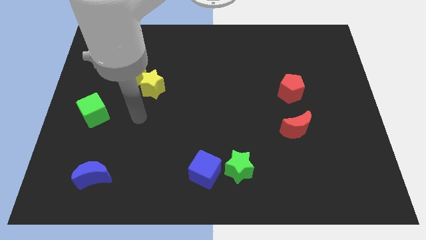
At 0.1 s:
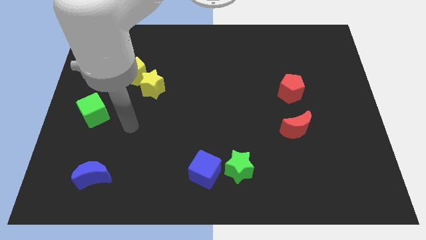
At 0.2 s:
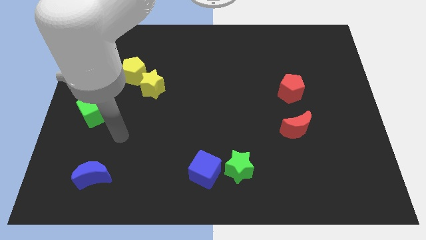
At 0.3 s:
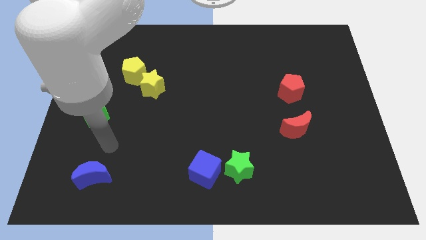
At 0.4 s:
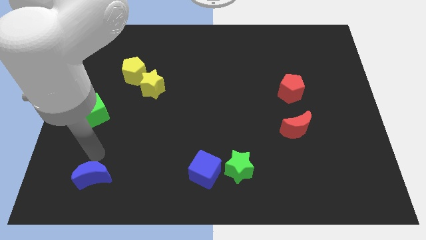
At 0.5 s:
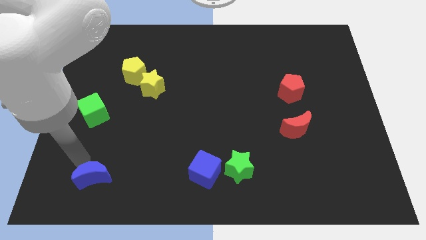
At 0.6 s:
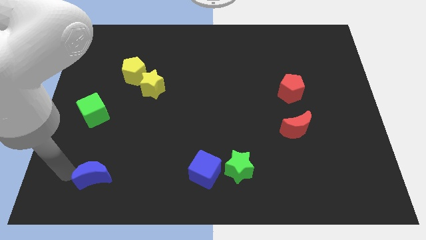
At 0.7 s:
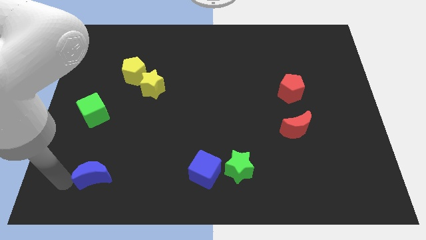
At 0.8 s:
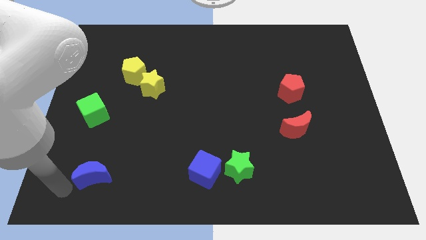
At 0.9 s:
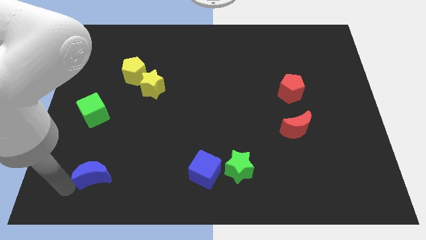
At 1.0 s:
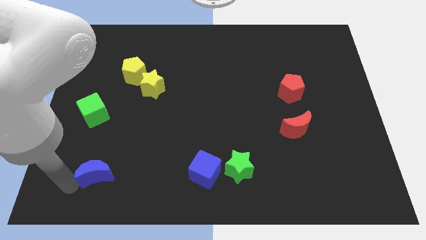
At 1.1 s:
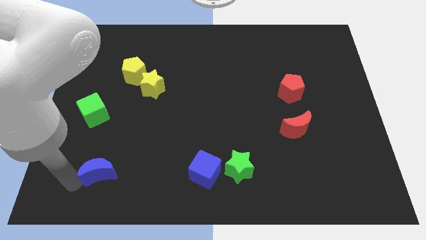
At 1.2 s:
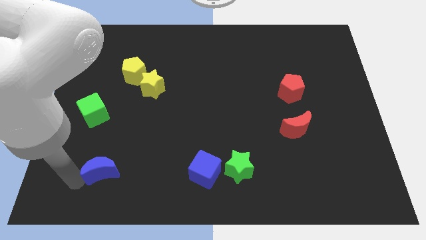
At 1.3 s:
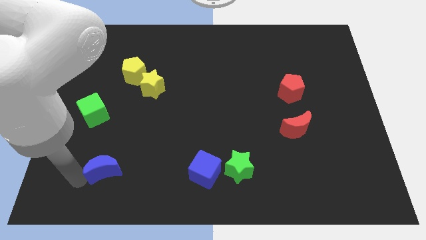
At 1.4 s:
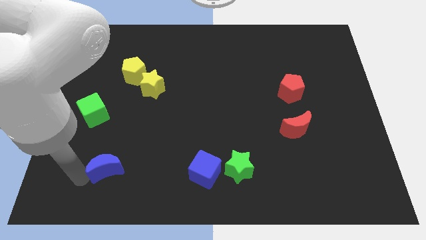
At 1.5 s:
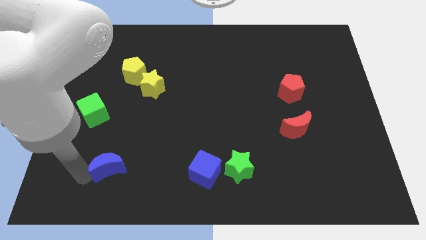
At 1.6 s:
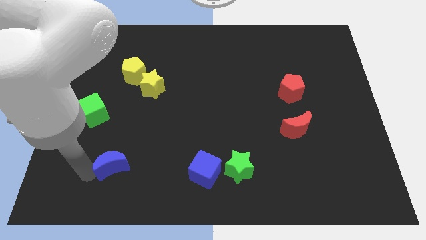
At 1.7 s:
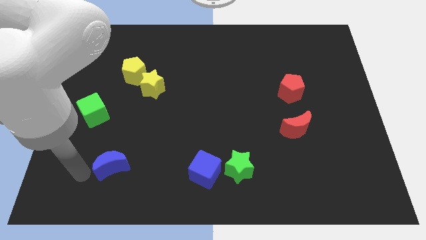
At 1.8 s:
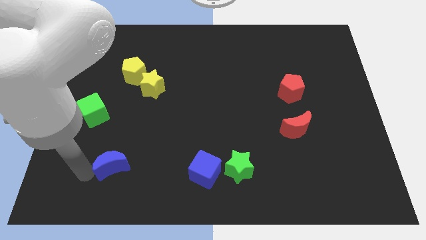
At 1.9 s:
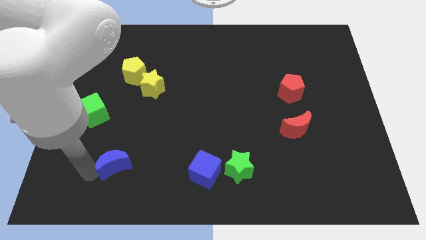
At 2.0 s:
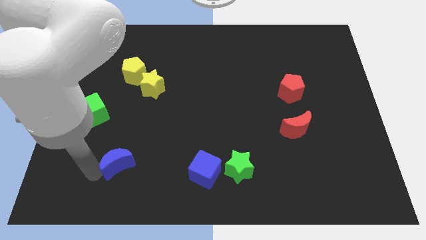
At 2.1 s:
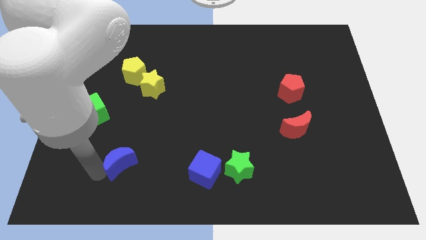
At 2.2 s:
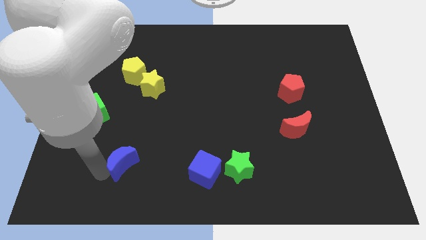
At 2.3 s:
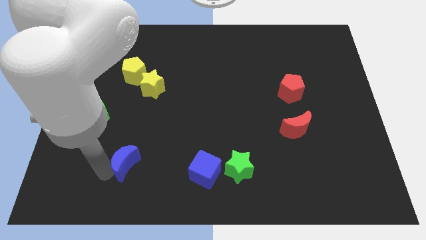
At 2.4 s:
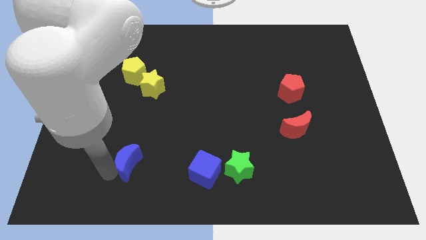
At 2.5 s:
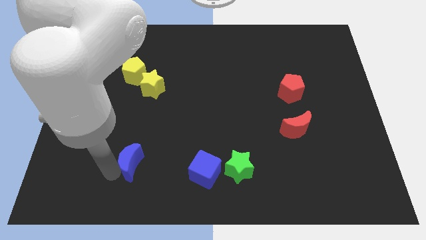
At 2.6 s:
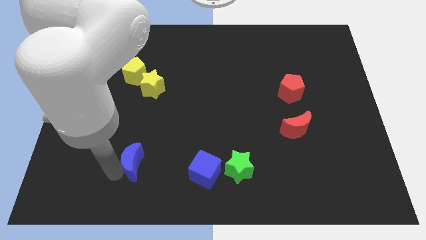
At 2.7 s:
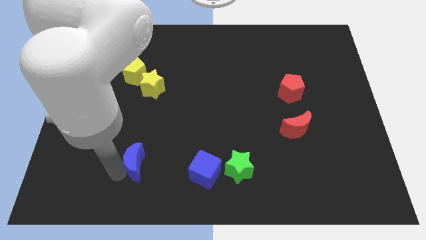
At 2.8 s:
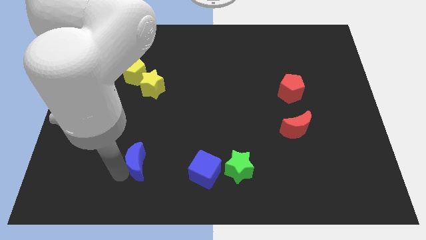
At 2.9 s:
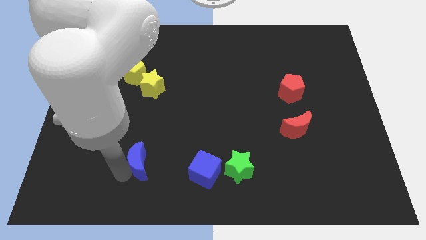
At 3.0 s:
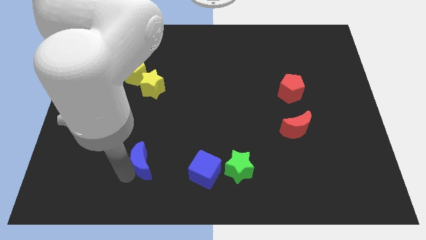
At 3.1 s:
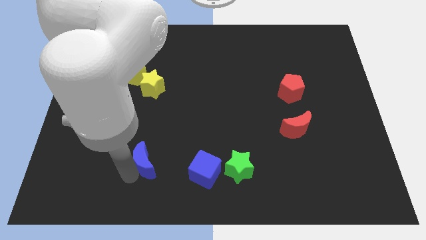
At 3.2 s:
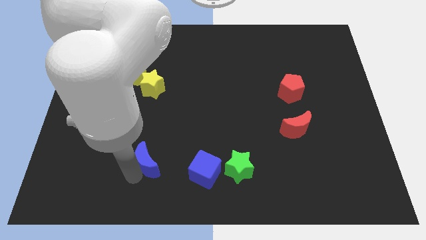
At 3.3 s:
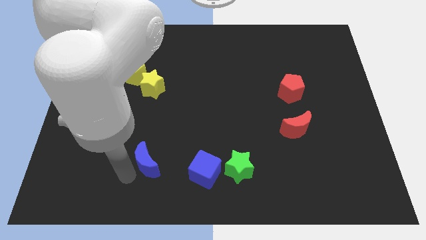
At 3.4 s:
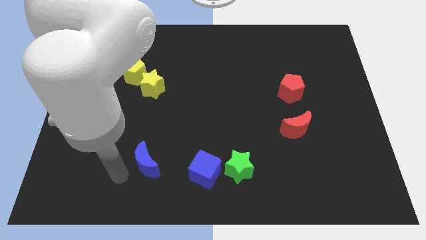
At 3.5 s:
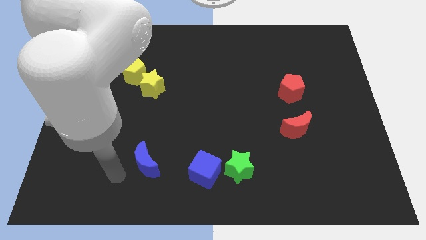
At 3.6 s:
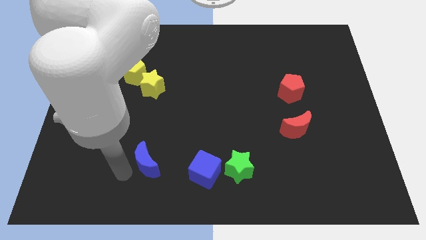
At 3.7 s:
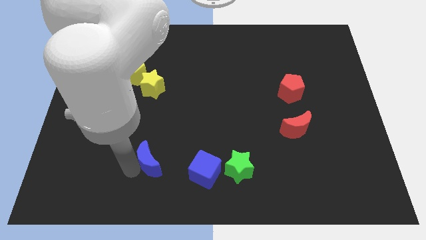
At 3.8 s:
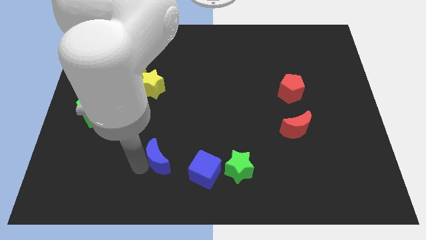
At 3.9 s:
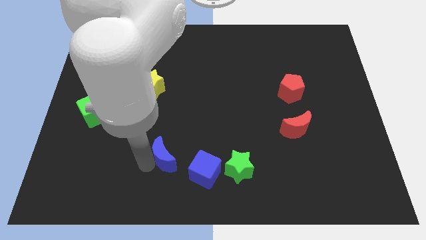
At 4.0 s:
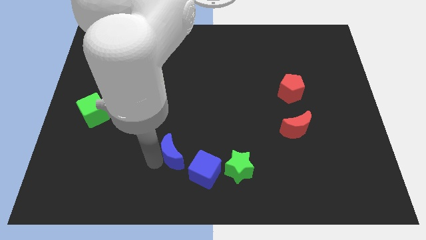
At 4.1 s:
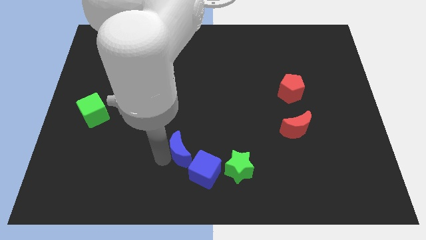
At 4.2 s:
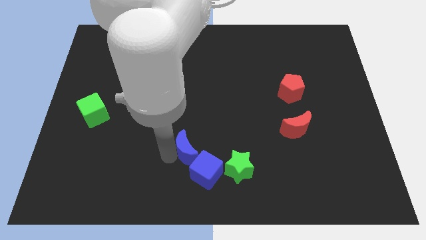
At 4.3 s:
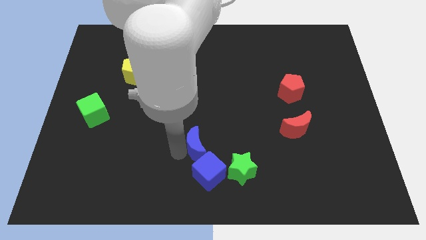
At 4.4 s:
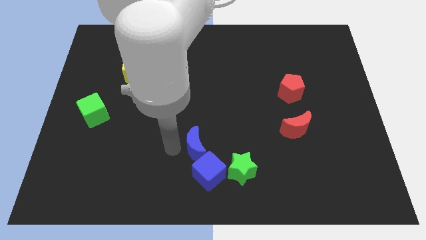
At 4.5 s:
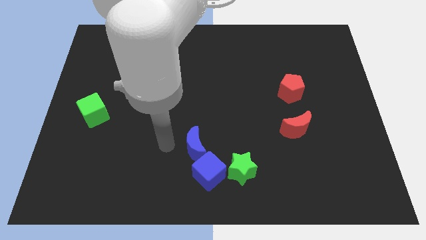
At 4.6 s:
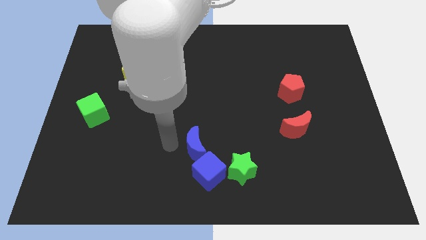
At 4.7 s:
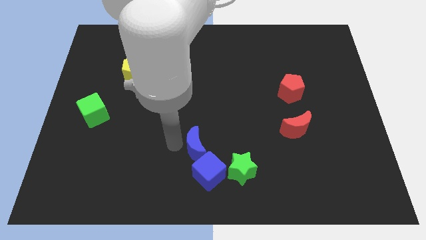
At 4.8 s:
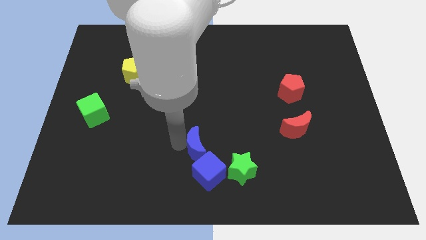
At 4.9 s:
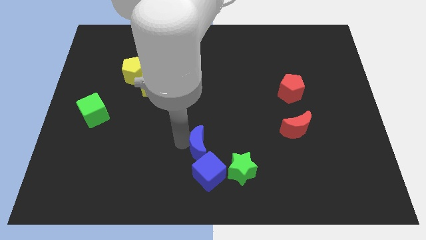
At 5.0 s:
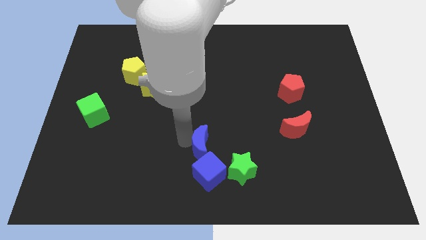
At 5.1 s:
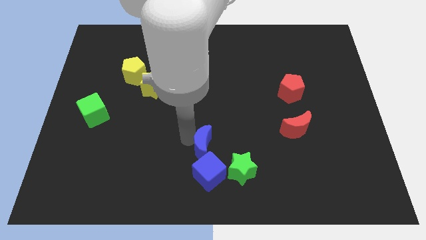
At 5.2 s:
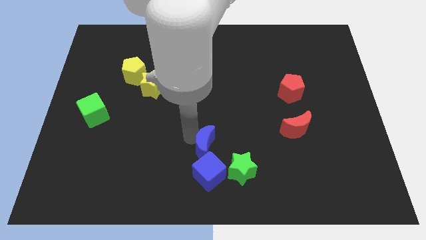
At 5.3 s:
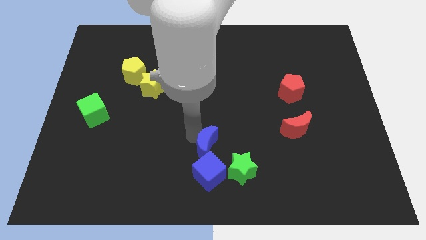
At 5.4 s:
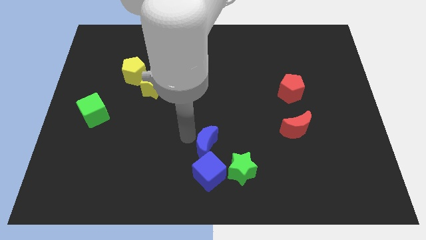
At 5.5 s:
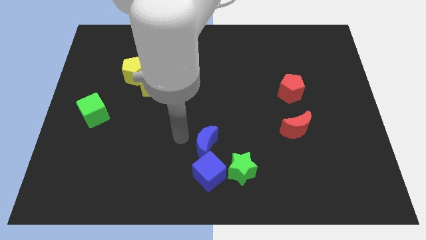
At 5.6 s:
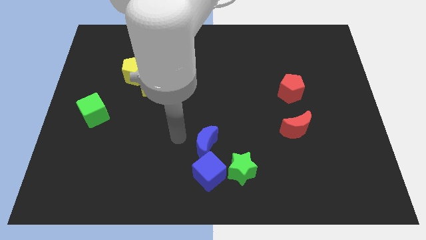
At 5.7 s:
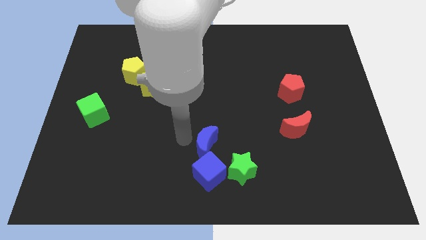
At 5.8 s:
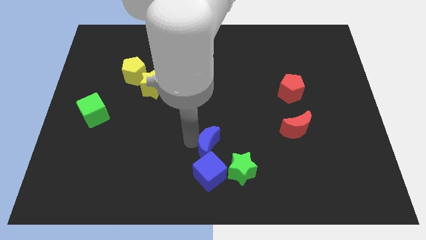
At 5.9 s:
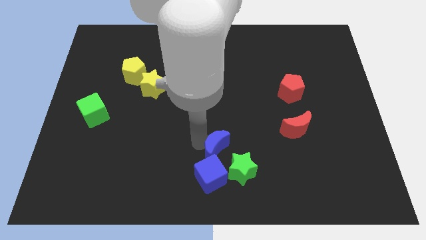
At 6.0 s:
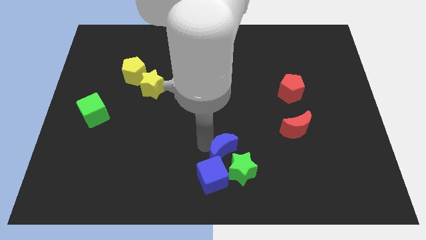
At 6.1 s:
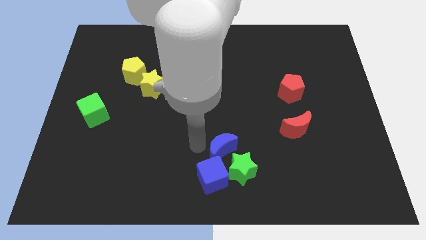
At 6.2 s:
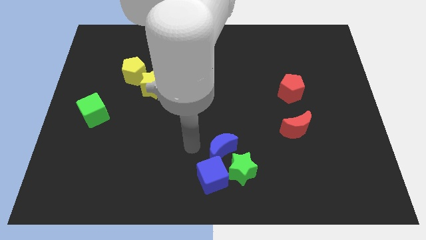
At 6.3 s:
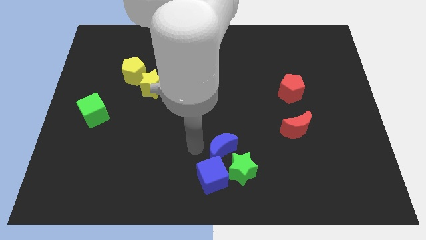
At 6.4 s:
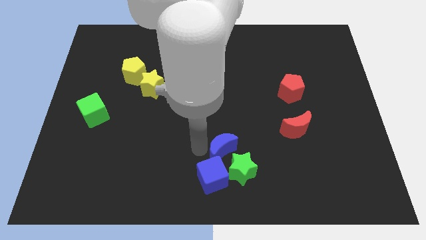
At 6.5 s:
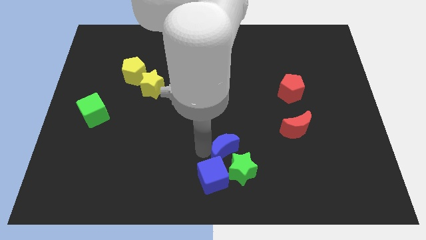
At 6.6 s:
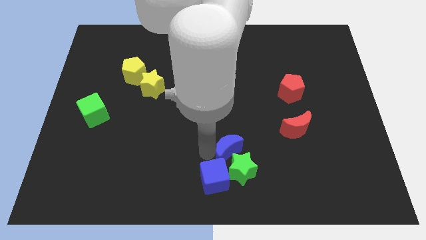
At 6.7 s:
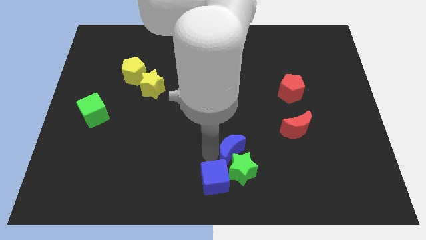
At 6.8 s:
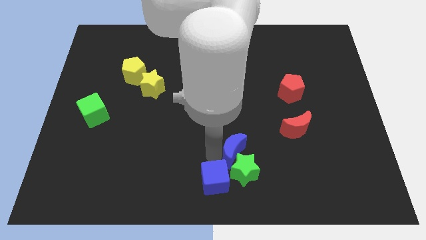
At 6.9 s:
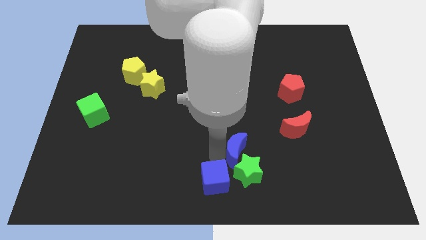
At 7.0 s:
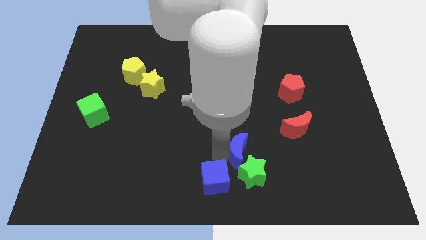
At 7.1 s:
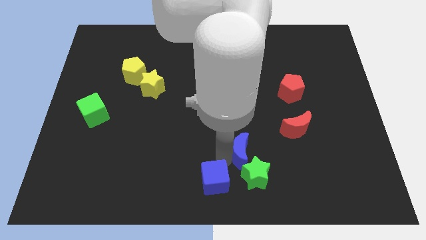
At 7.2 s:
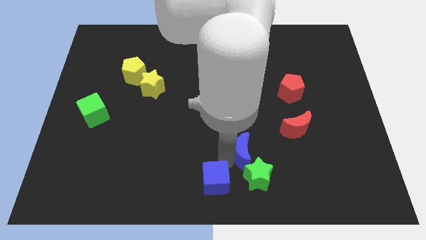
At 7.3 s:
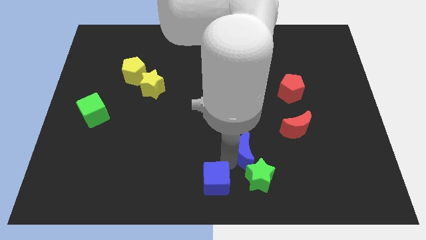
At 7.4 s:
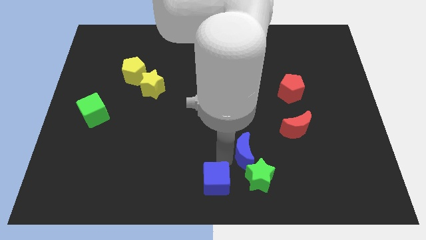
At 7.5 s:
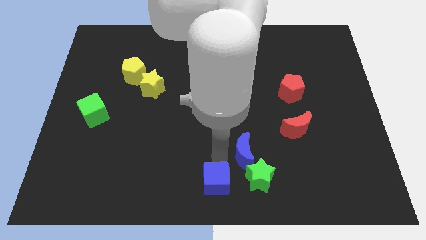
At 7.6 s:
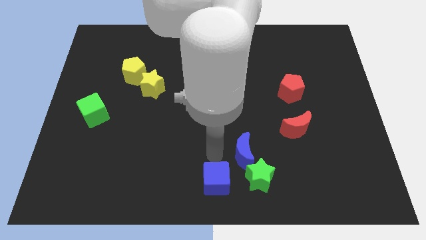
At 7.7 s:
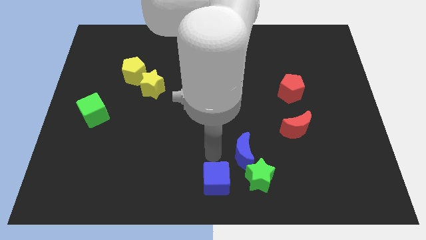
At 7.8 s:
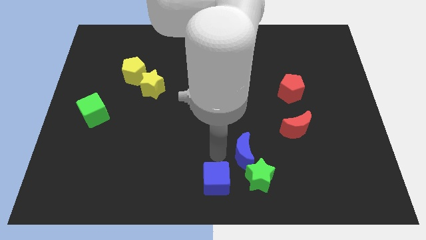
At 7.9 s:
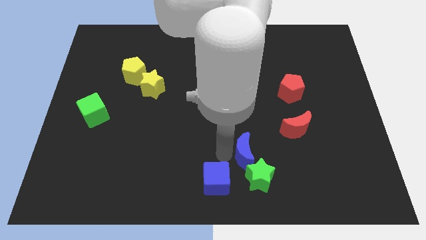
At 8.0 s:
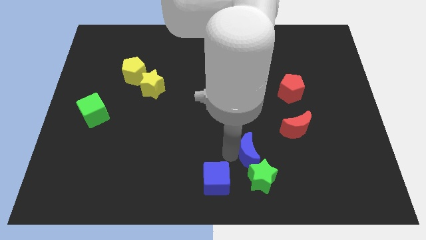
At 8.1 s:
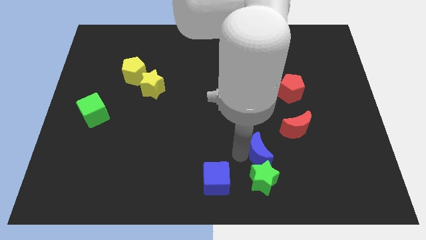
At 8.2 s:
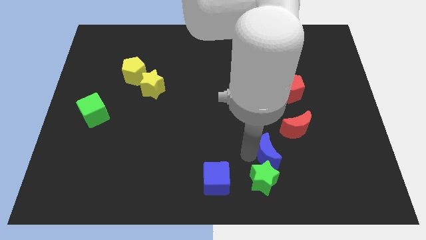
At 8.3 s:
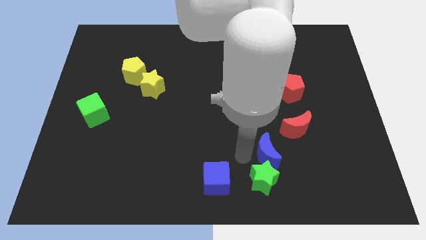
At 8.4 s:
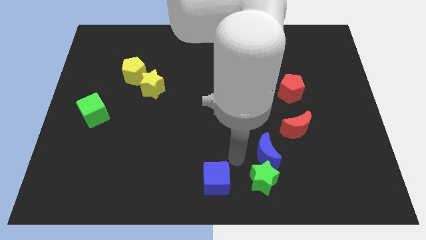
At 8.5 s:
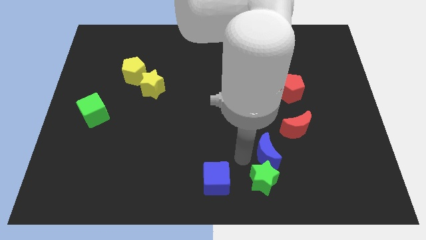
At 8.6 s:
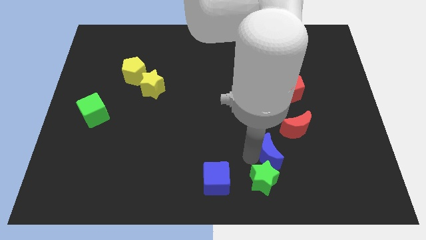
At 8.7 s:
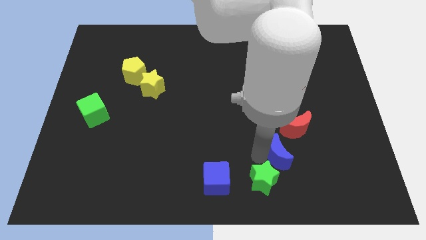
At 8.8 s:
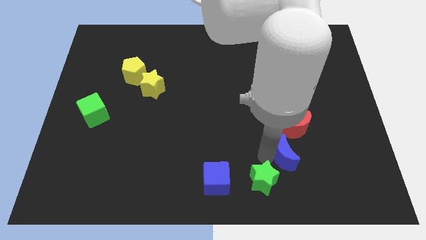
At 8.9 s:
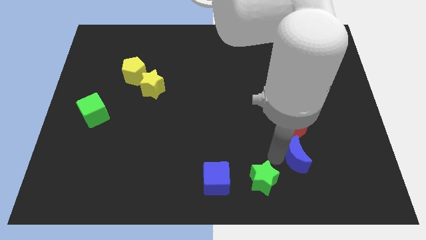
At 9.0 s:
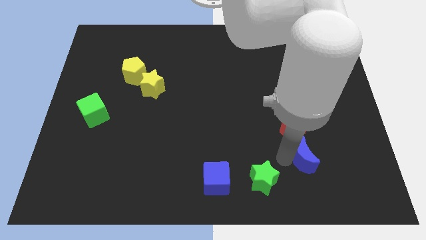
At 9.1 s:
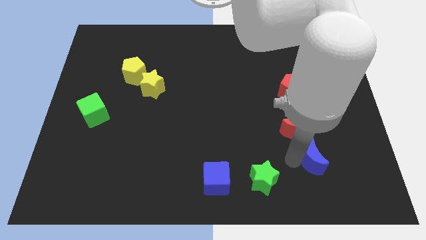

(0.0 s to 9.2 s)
slide the blue moon to the bottom right of the red moon
